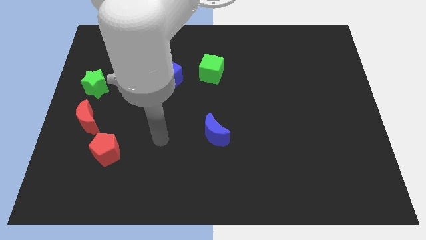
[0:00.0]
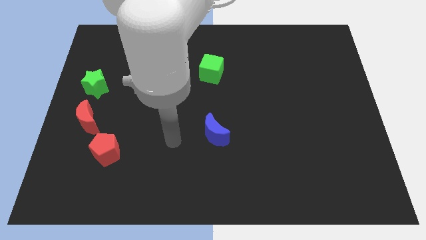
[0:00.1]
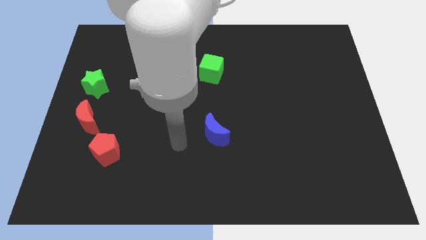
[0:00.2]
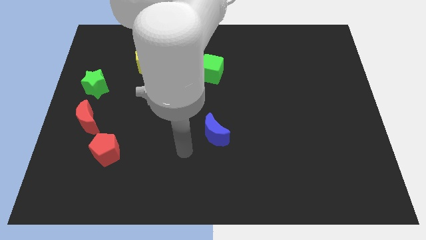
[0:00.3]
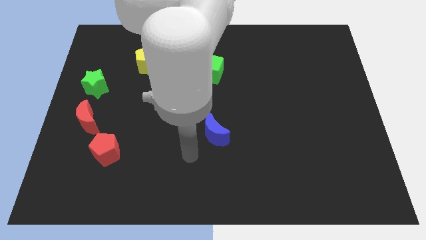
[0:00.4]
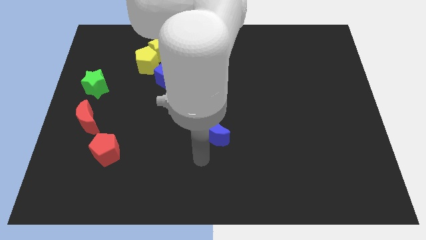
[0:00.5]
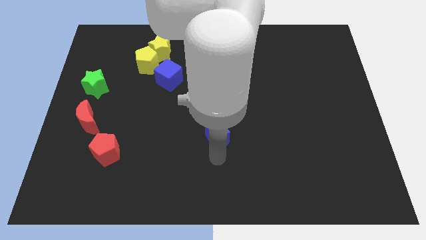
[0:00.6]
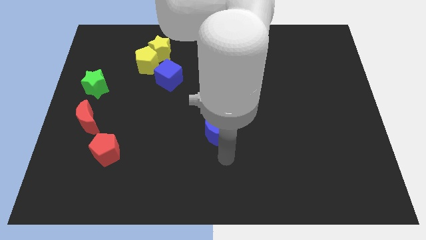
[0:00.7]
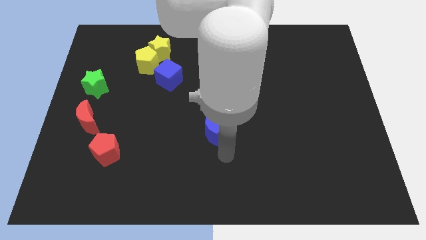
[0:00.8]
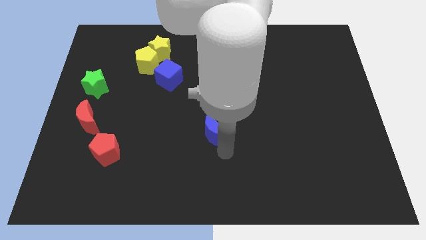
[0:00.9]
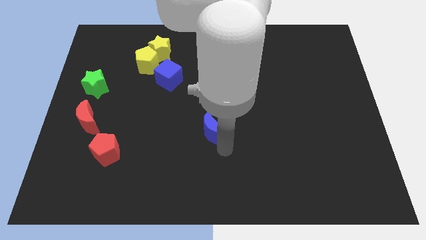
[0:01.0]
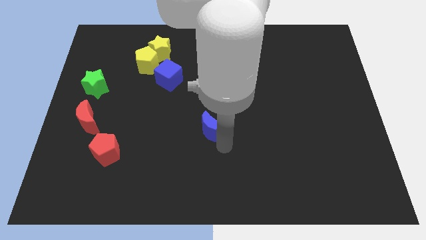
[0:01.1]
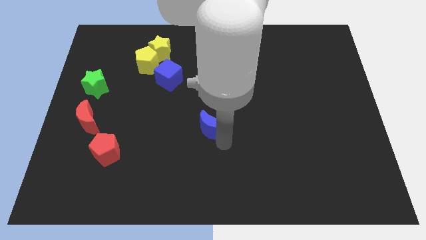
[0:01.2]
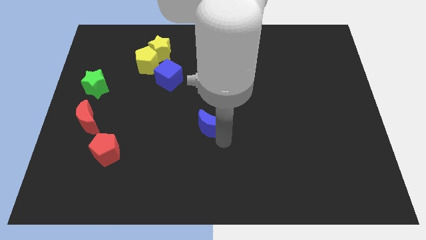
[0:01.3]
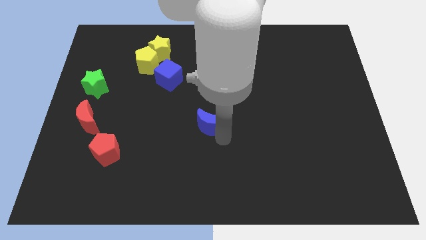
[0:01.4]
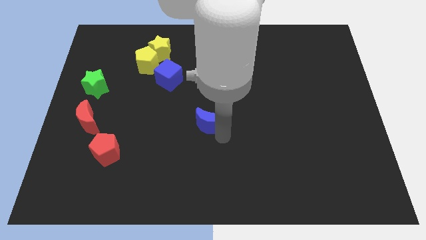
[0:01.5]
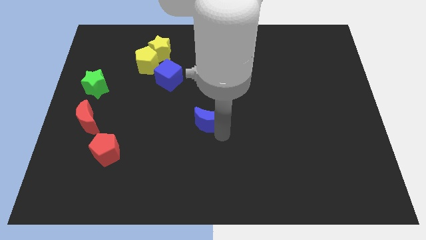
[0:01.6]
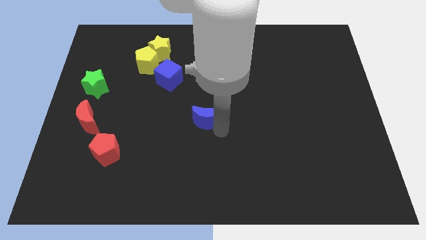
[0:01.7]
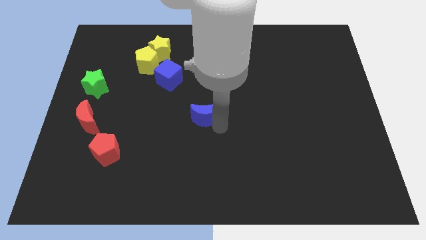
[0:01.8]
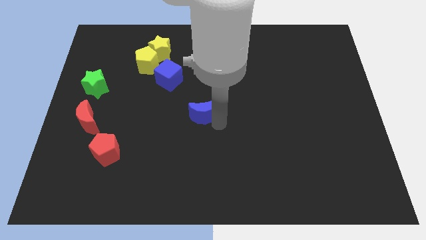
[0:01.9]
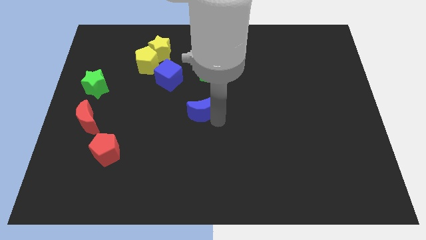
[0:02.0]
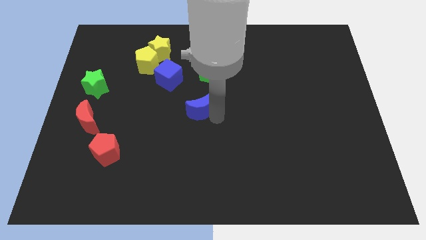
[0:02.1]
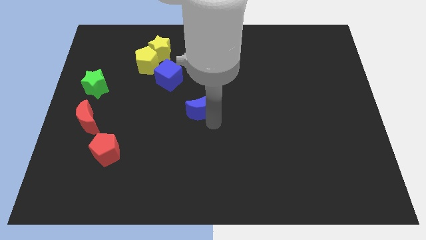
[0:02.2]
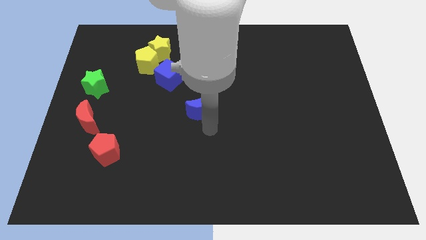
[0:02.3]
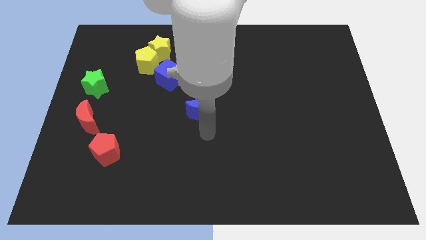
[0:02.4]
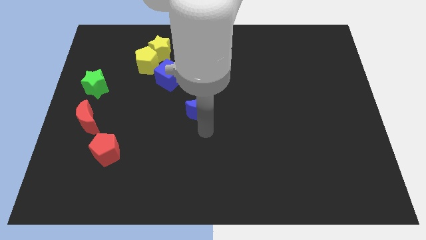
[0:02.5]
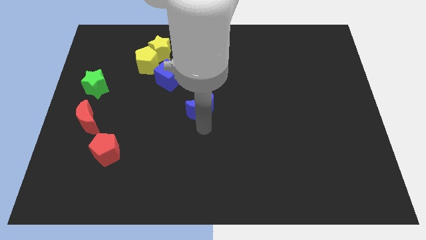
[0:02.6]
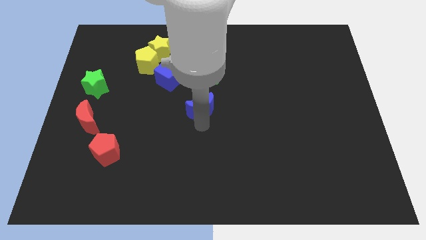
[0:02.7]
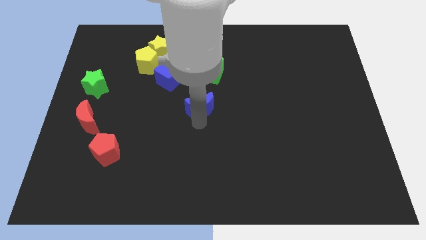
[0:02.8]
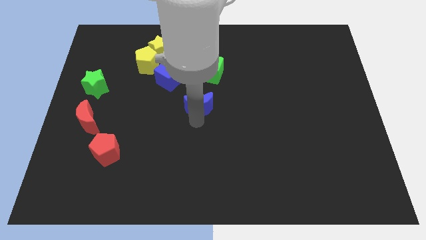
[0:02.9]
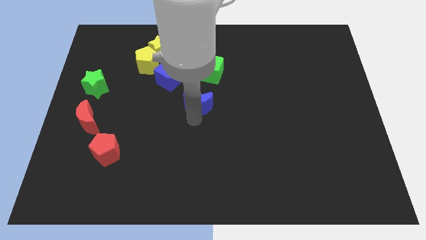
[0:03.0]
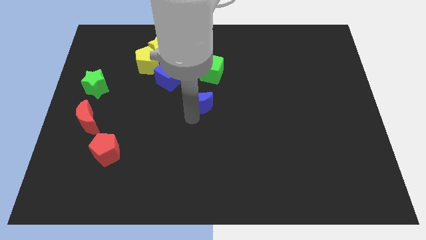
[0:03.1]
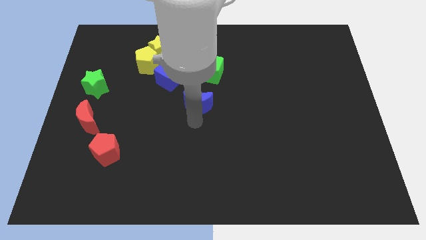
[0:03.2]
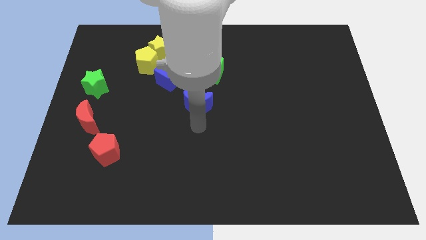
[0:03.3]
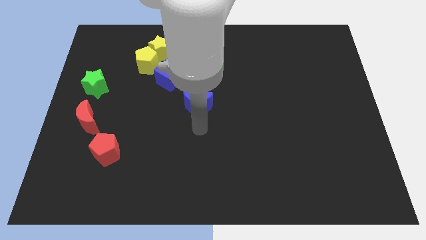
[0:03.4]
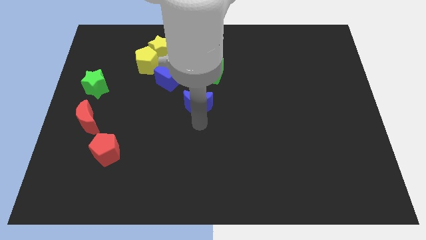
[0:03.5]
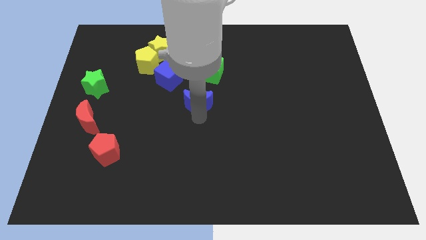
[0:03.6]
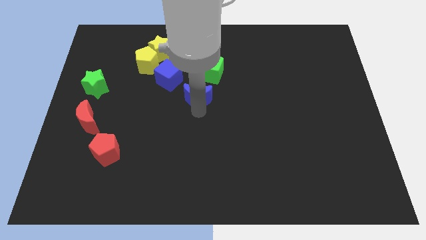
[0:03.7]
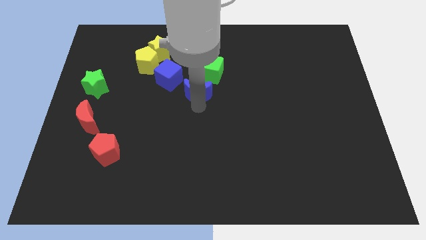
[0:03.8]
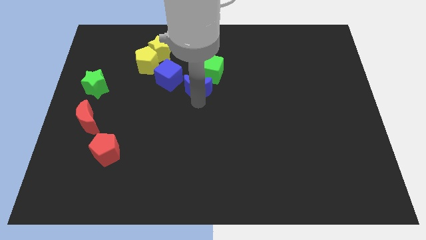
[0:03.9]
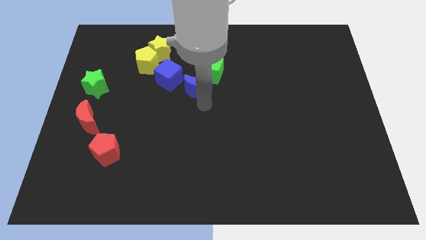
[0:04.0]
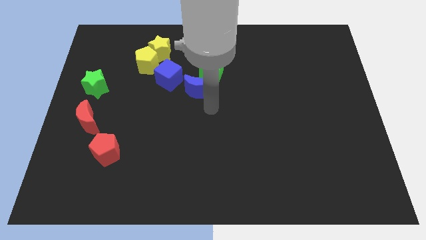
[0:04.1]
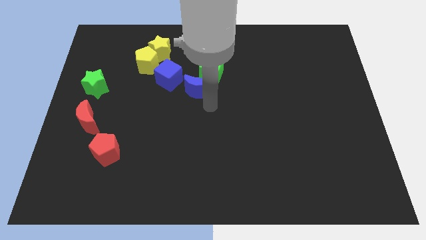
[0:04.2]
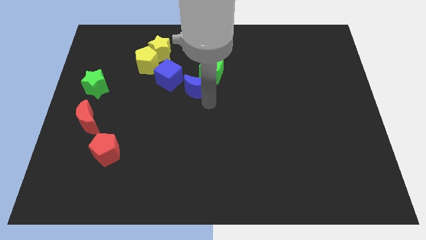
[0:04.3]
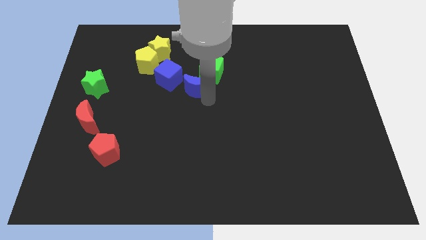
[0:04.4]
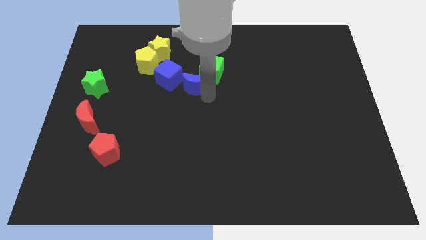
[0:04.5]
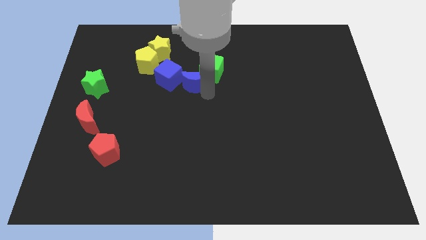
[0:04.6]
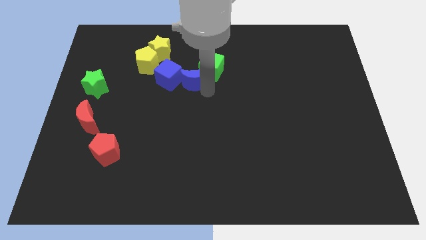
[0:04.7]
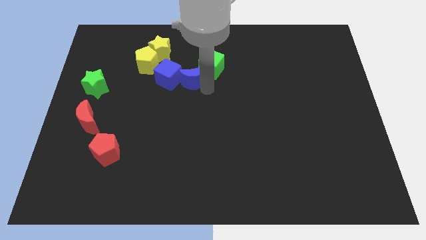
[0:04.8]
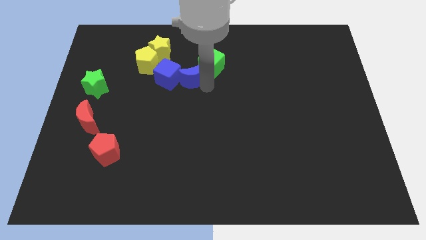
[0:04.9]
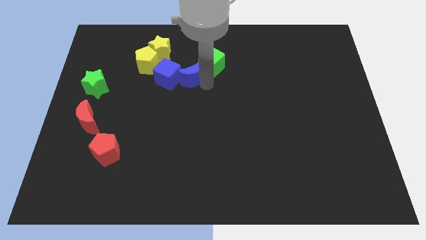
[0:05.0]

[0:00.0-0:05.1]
move the blue moon diagonally down and to the right of the yellow star

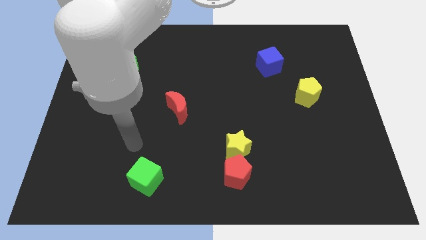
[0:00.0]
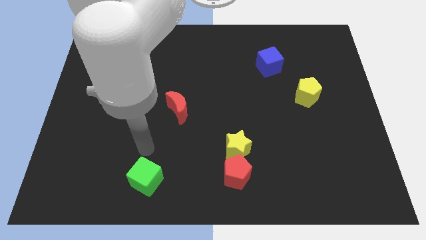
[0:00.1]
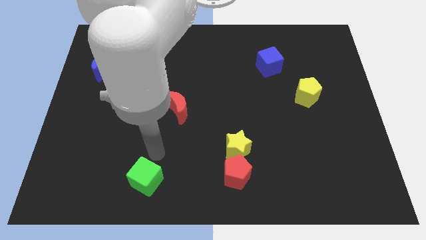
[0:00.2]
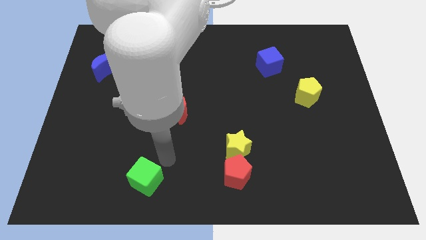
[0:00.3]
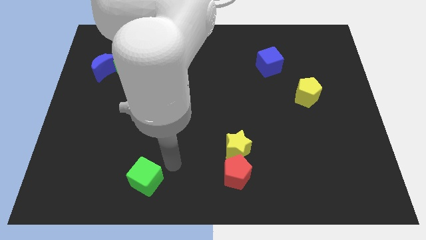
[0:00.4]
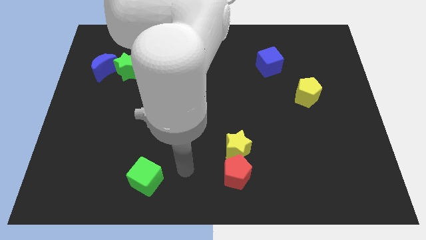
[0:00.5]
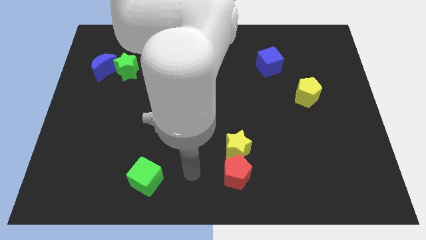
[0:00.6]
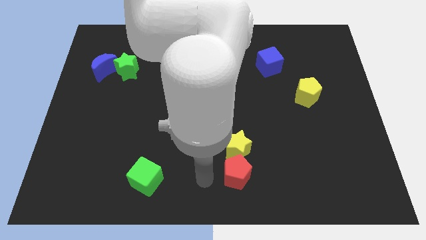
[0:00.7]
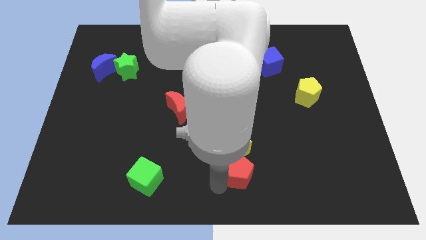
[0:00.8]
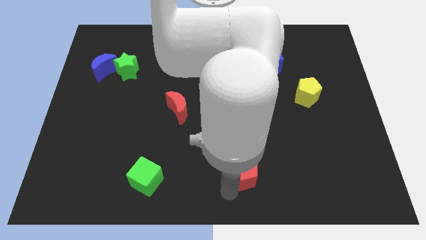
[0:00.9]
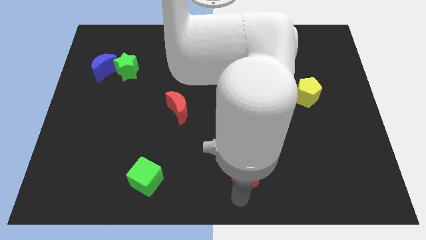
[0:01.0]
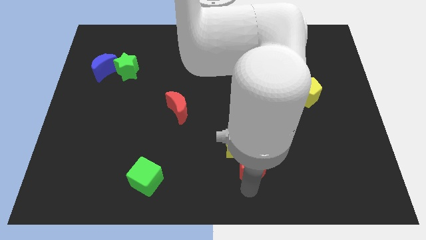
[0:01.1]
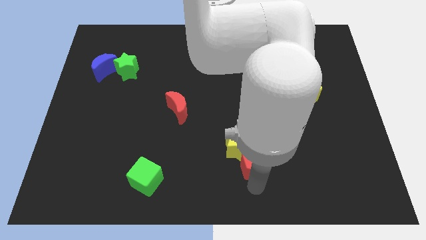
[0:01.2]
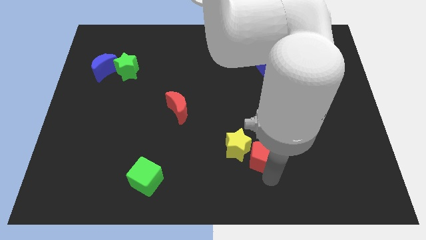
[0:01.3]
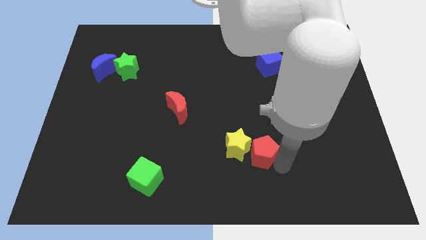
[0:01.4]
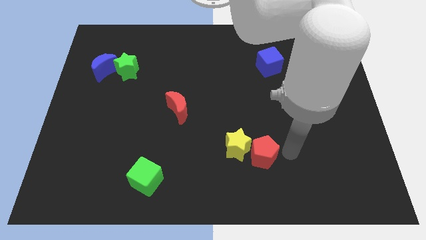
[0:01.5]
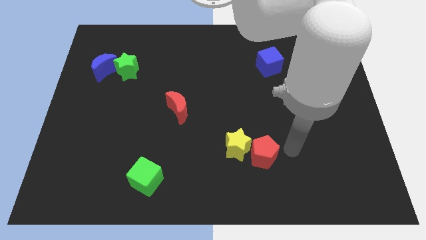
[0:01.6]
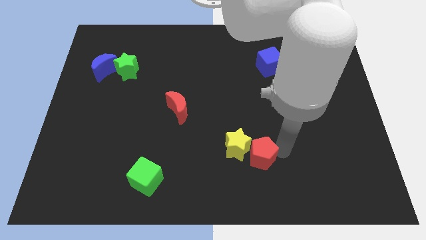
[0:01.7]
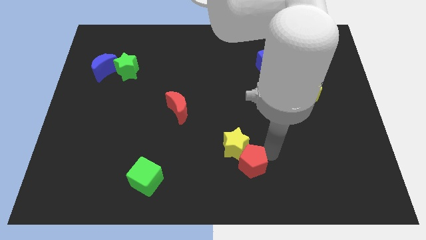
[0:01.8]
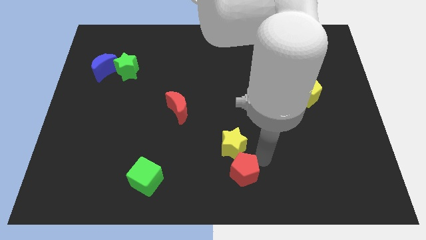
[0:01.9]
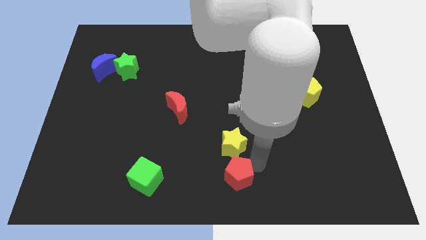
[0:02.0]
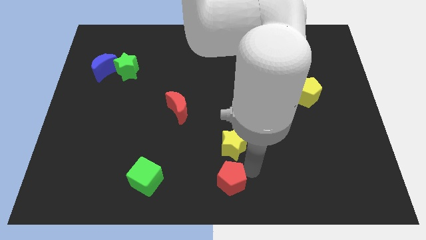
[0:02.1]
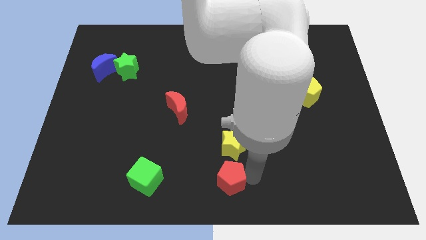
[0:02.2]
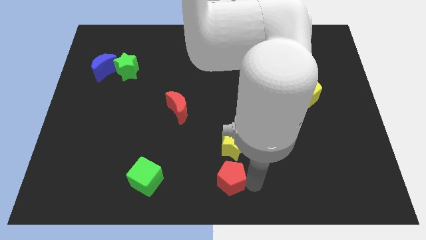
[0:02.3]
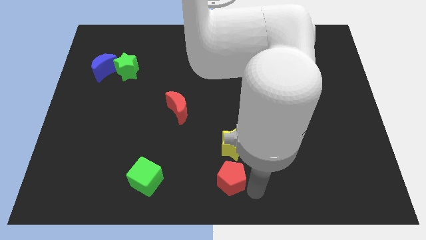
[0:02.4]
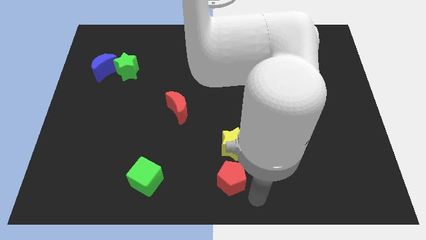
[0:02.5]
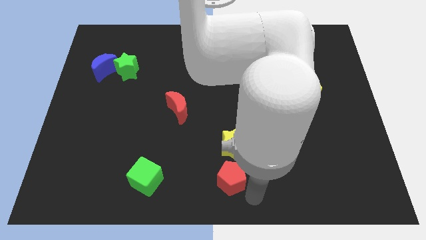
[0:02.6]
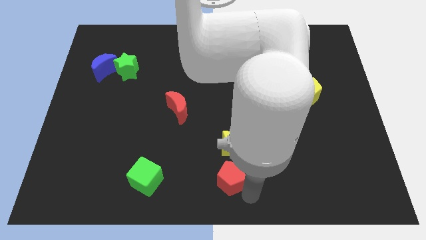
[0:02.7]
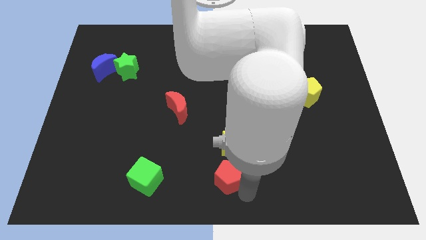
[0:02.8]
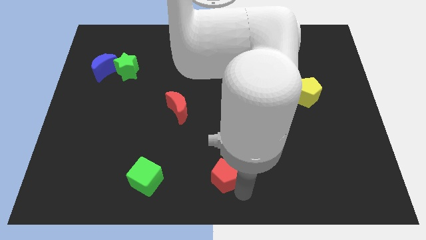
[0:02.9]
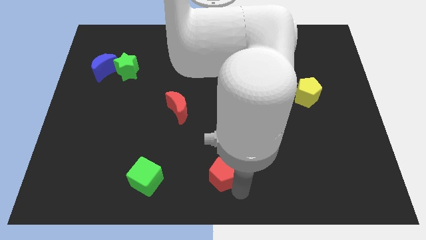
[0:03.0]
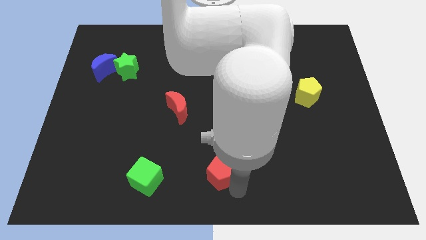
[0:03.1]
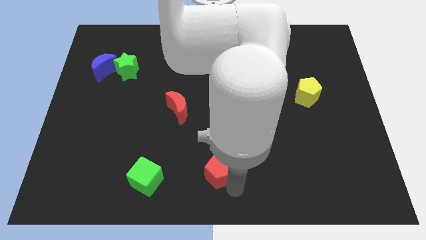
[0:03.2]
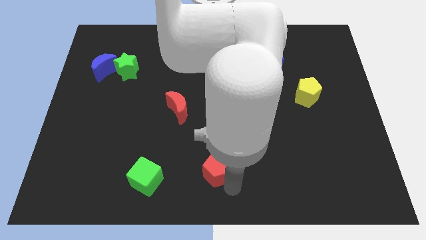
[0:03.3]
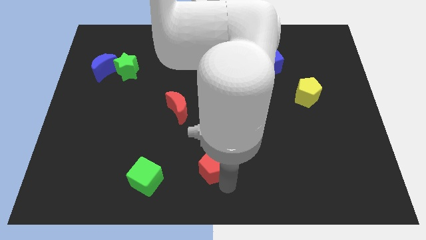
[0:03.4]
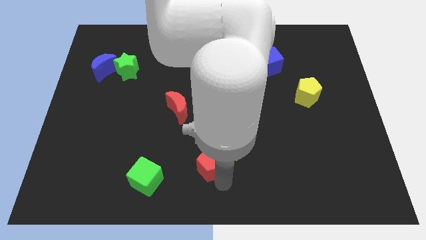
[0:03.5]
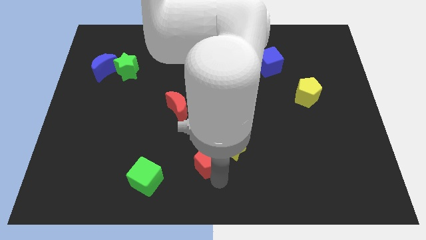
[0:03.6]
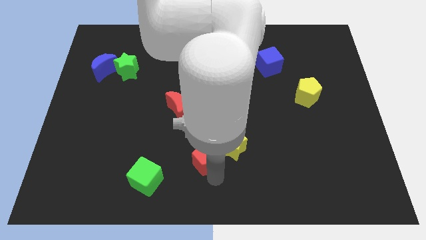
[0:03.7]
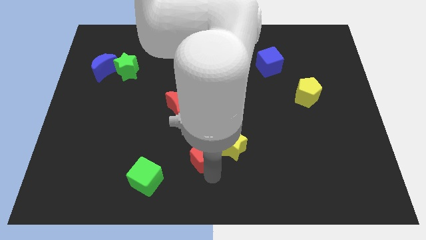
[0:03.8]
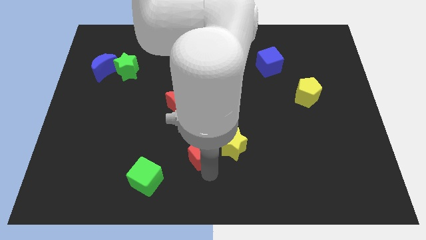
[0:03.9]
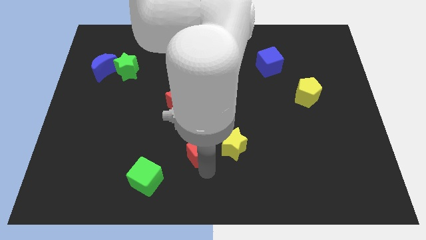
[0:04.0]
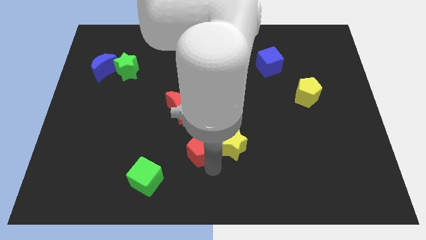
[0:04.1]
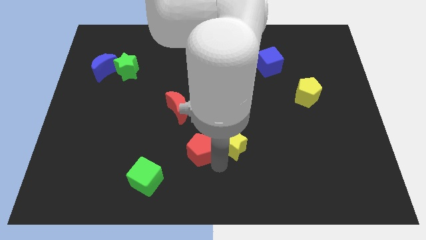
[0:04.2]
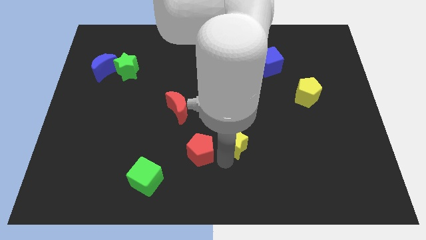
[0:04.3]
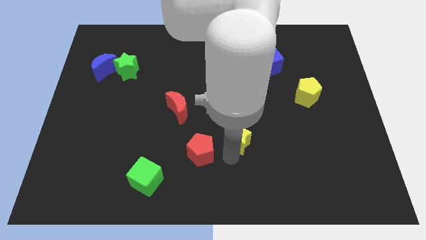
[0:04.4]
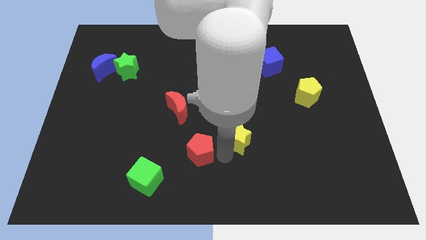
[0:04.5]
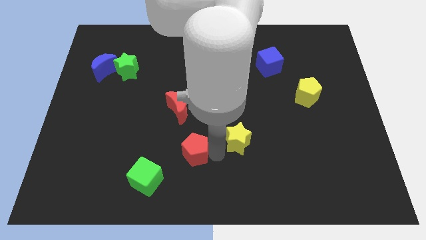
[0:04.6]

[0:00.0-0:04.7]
put the red pentagon to the bottom side of the red moon
